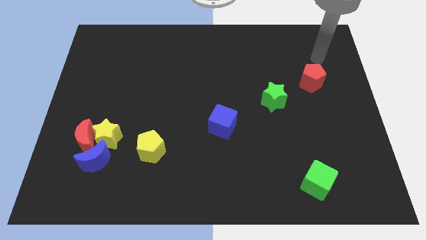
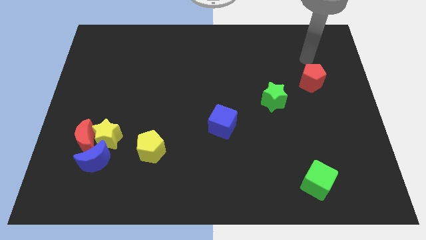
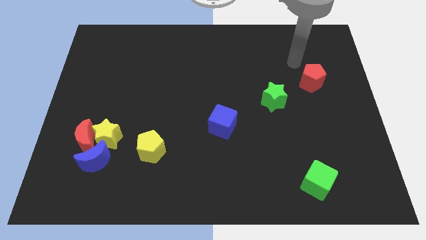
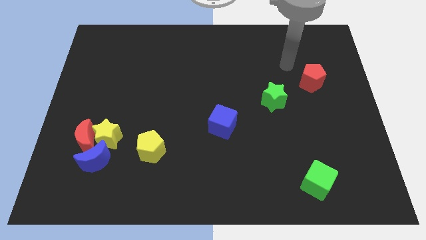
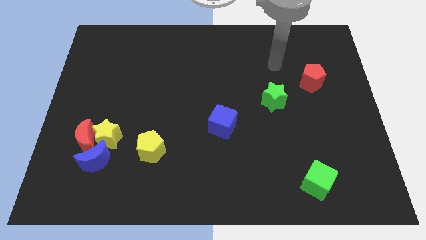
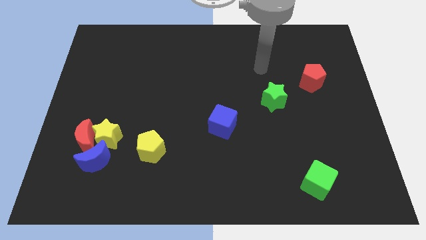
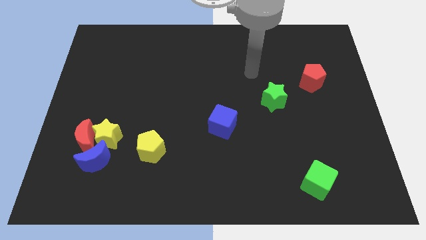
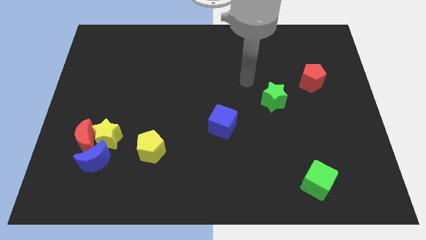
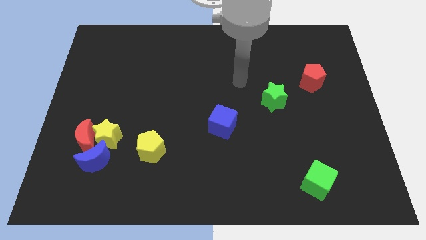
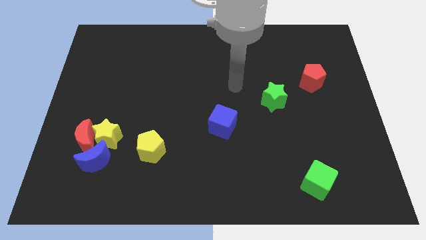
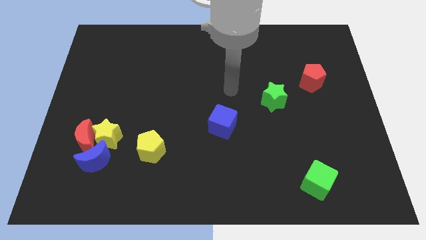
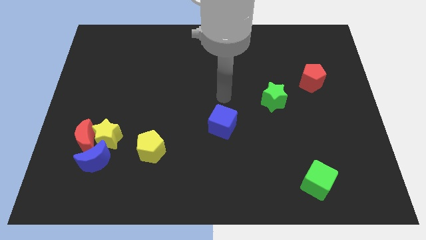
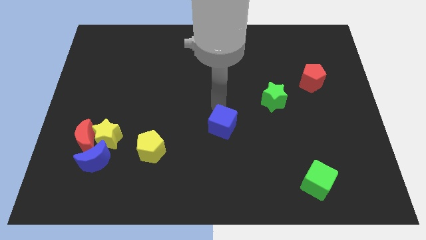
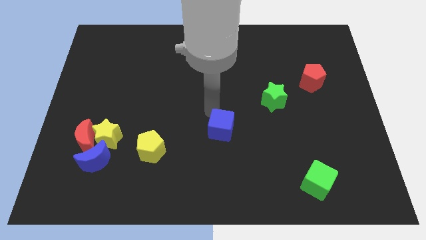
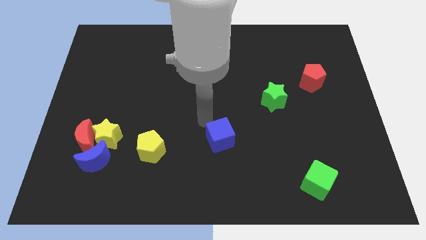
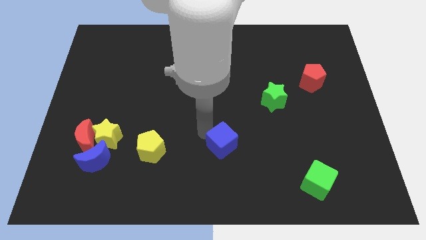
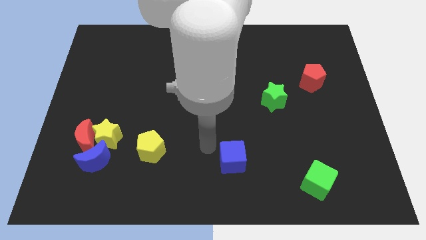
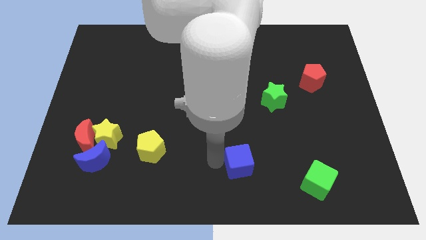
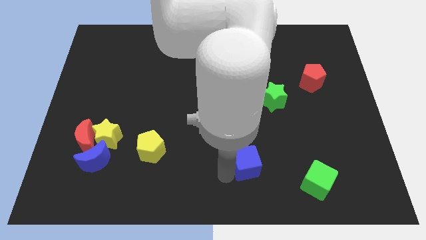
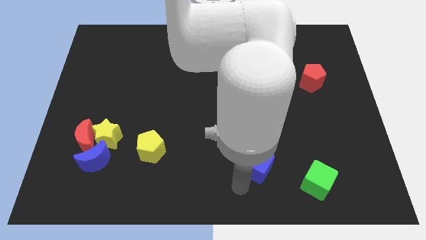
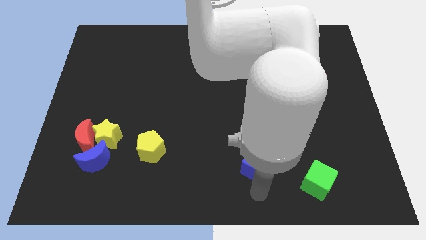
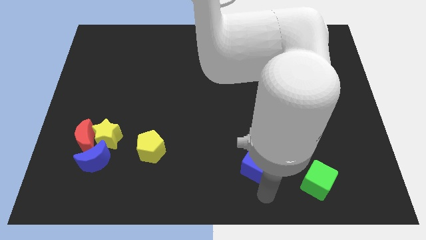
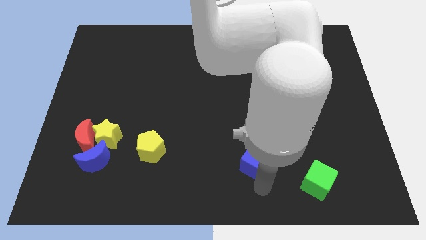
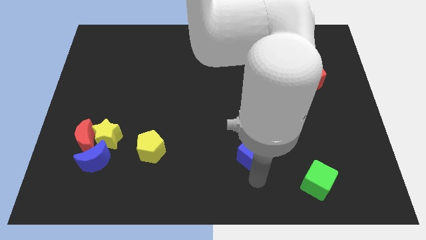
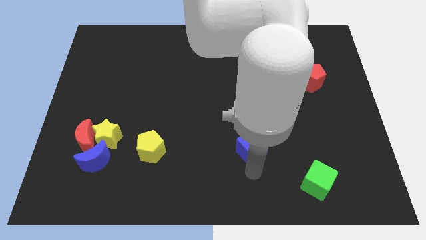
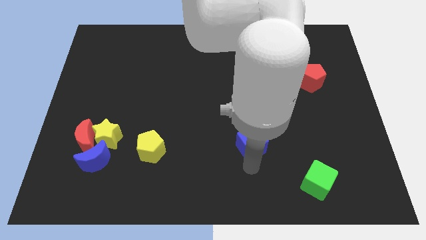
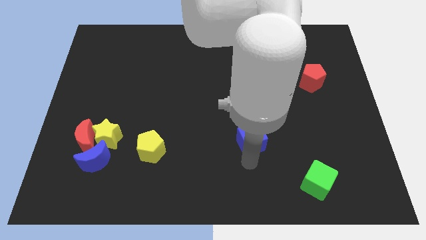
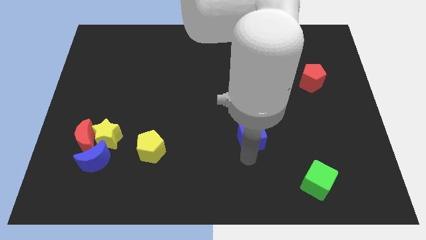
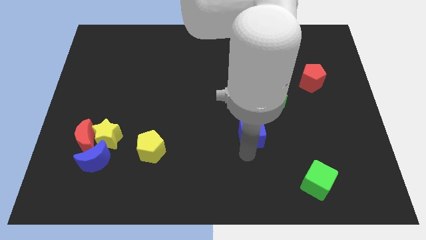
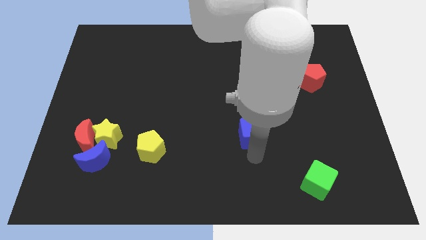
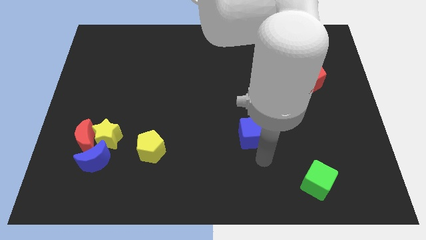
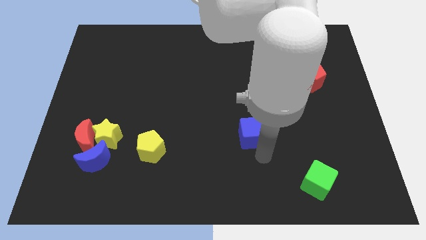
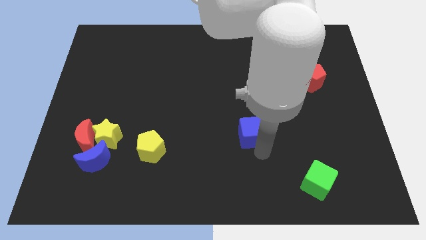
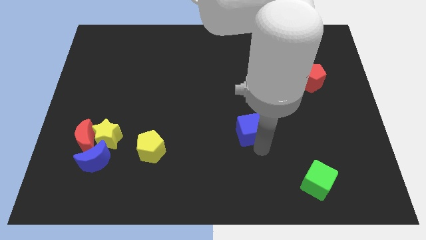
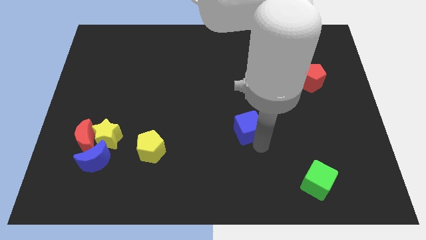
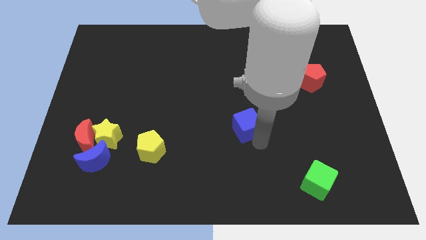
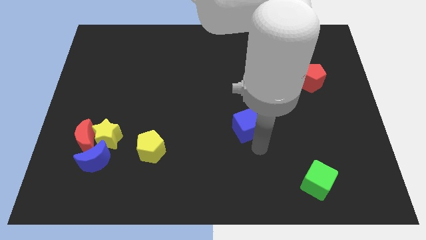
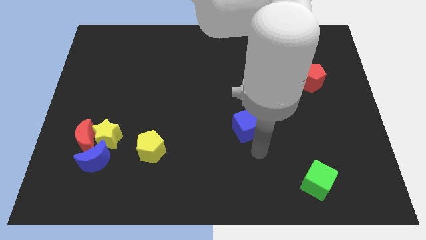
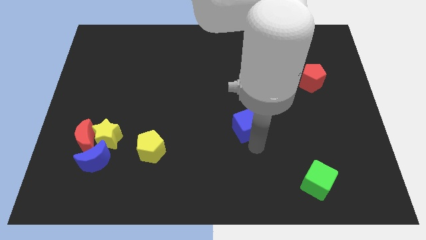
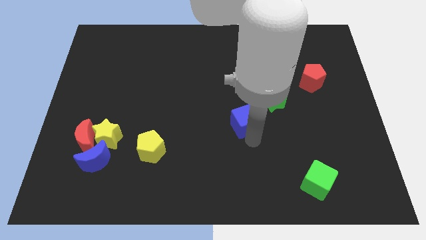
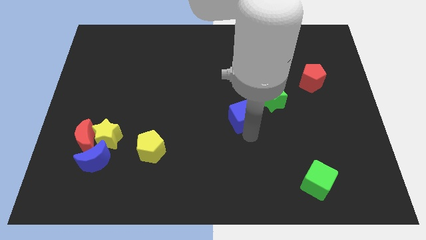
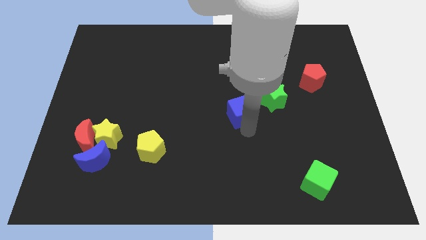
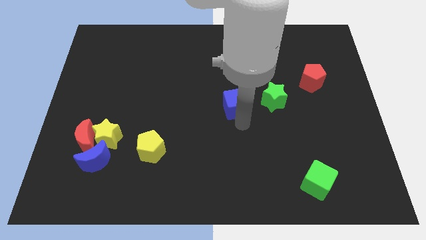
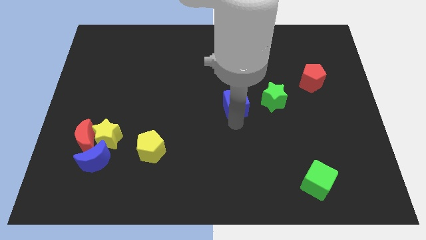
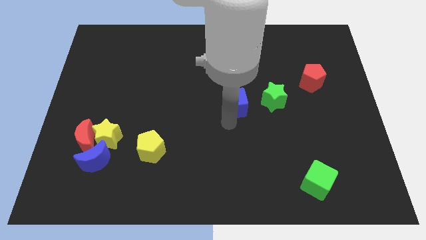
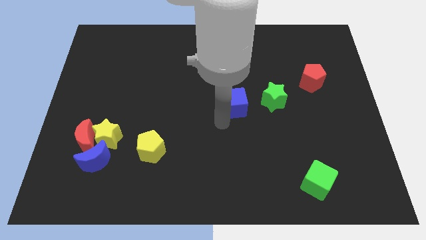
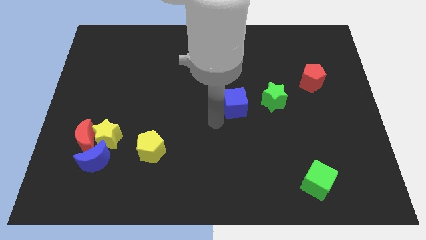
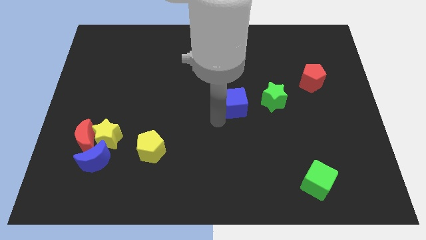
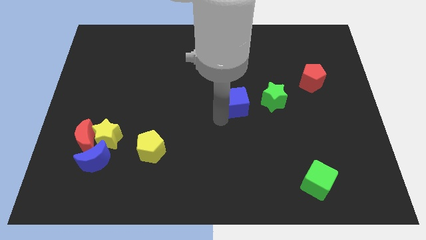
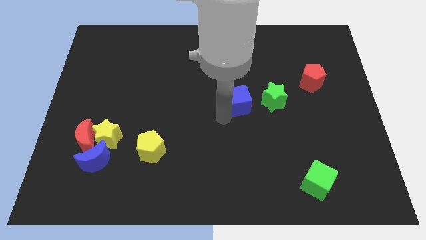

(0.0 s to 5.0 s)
push the blue cube slightly upwards and right diagonally

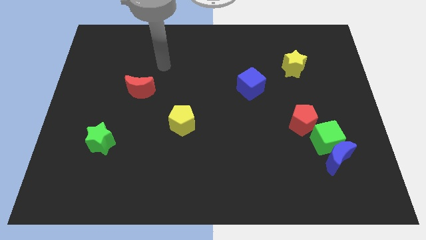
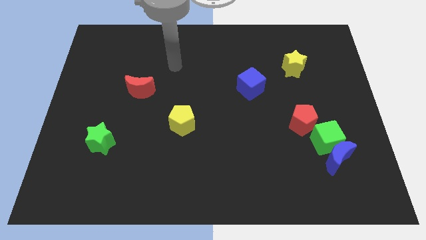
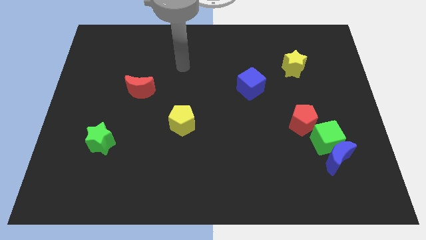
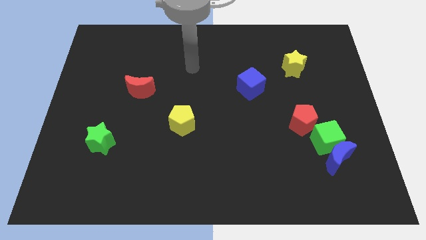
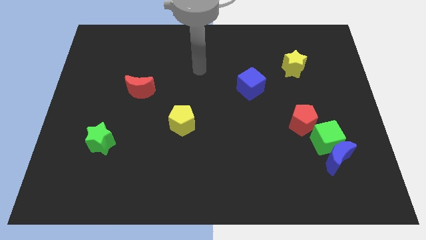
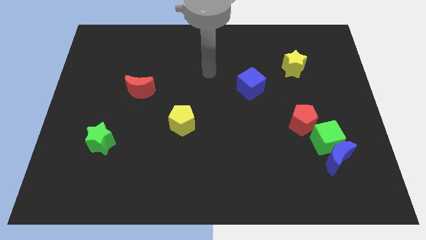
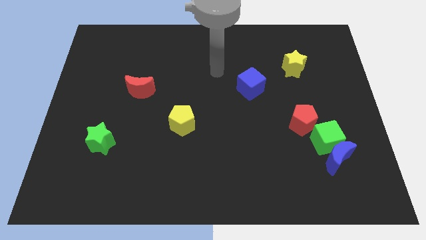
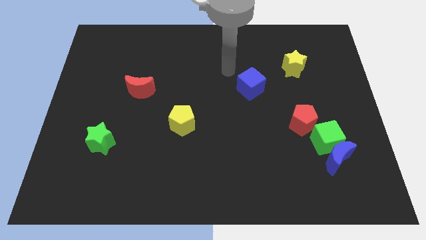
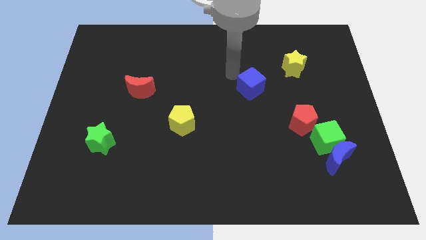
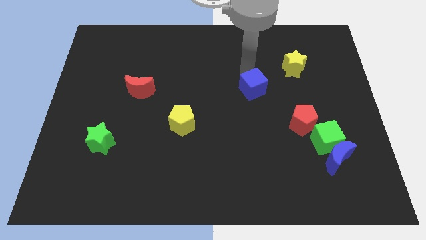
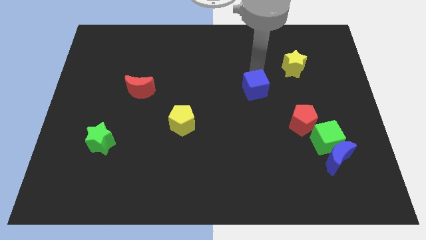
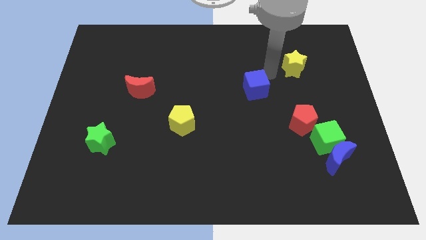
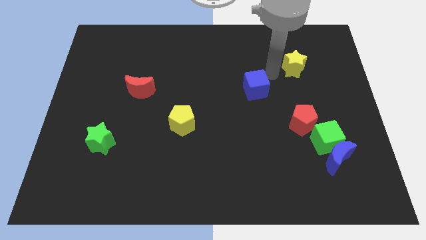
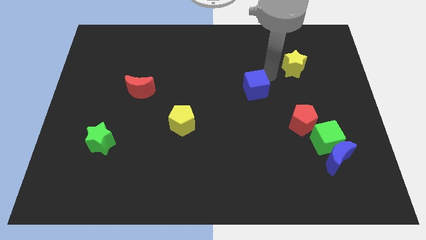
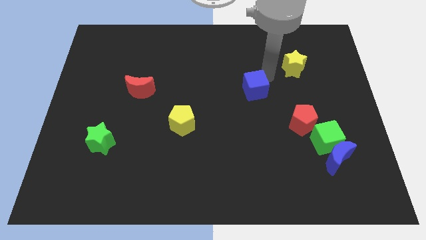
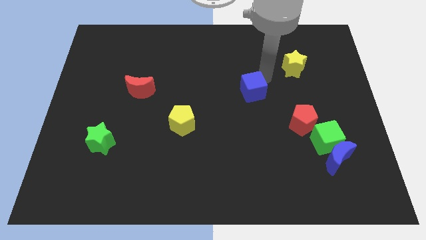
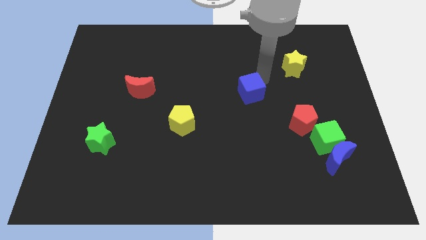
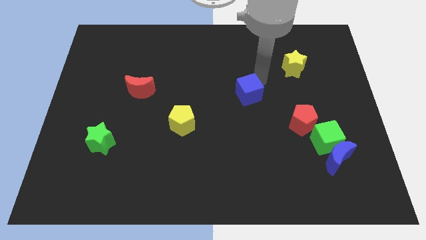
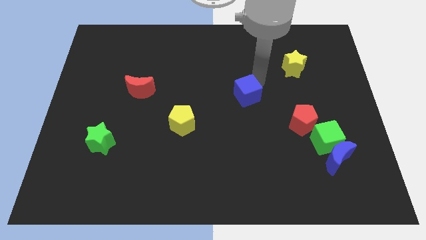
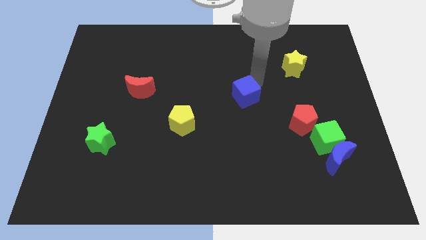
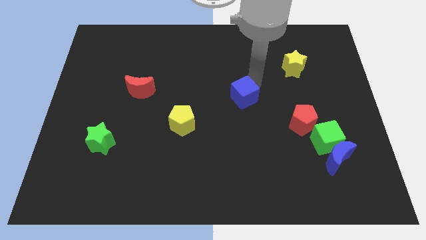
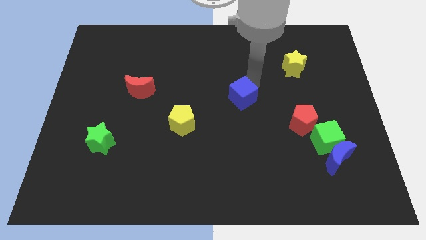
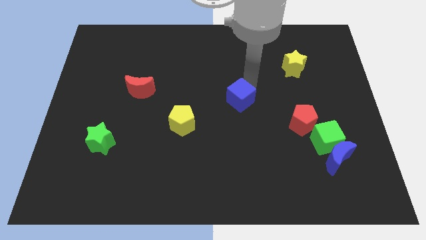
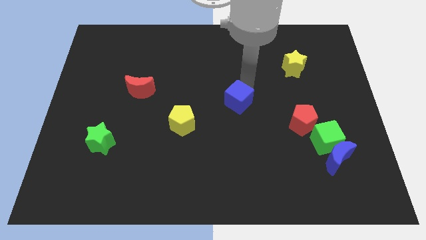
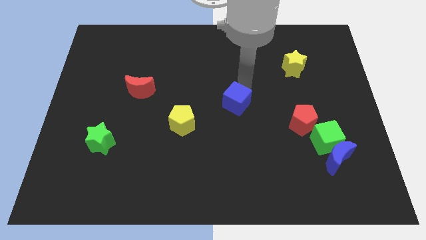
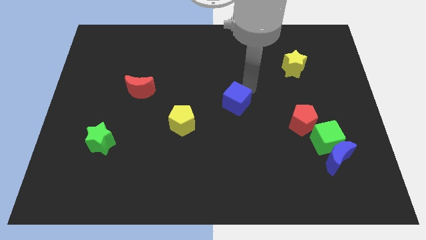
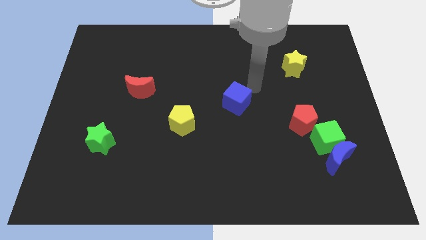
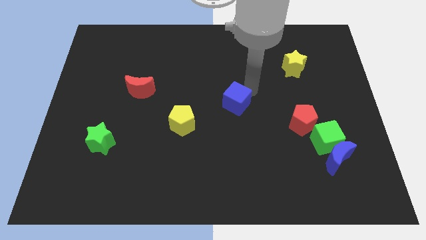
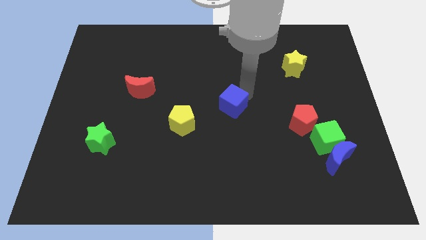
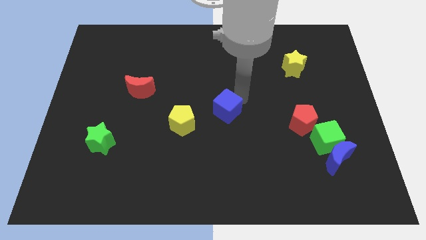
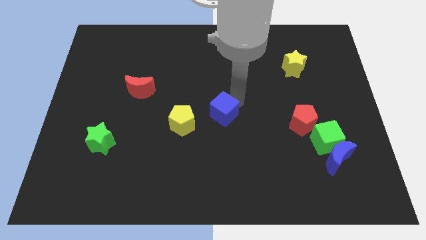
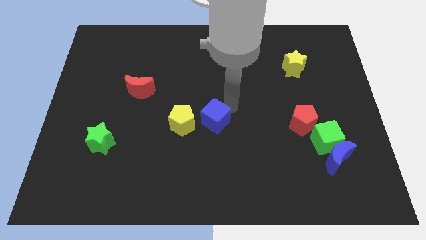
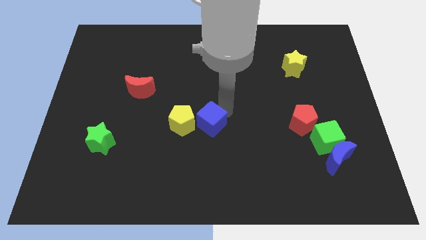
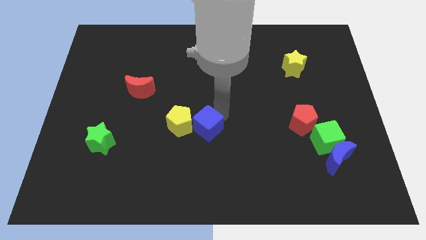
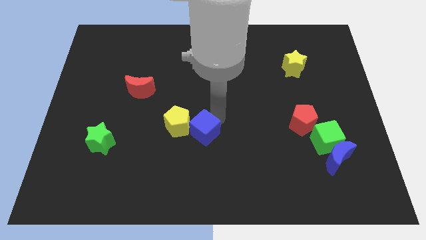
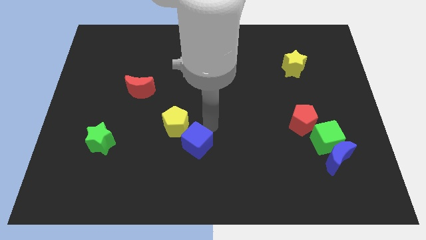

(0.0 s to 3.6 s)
slide the blue cube downwards and then to the left
